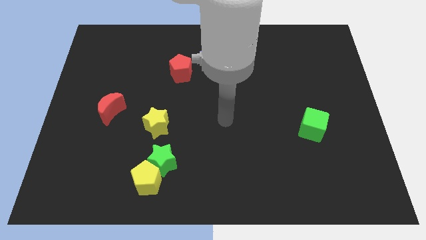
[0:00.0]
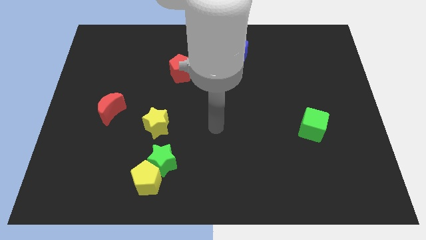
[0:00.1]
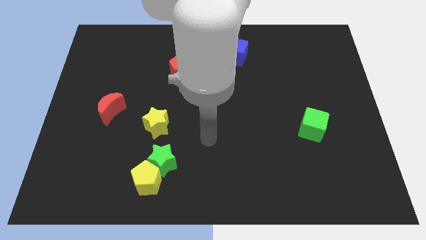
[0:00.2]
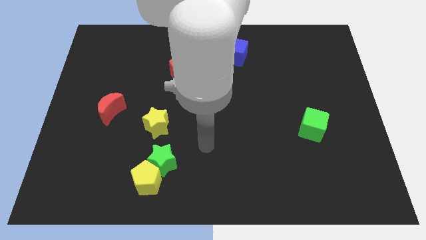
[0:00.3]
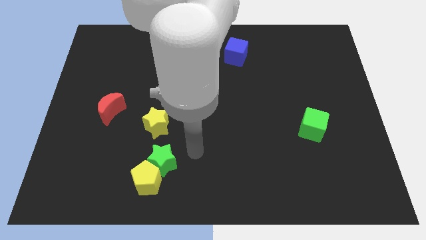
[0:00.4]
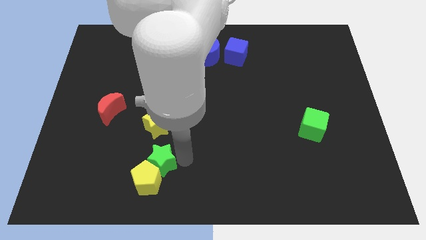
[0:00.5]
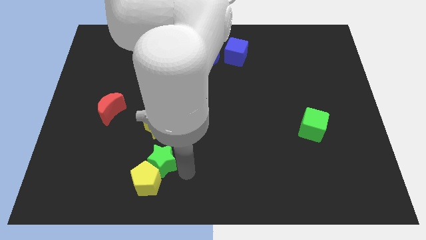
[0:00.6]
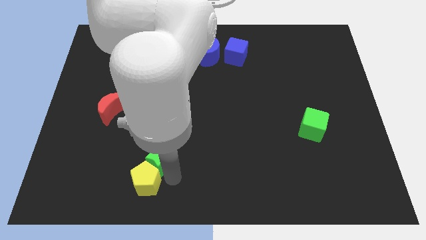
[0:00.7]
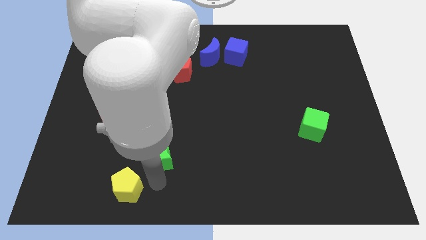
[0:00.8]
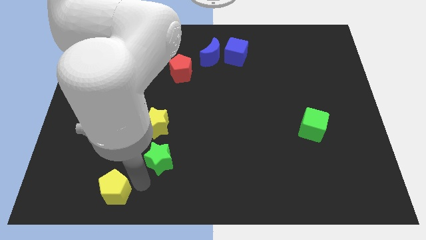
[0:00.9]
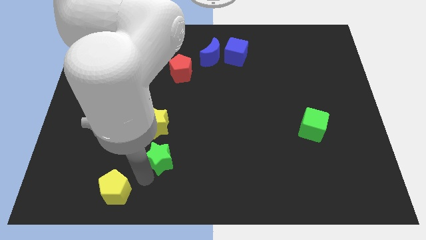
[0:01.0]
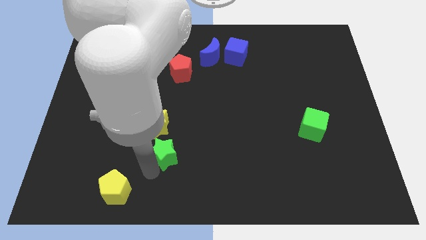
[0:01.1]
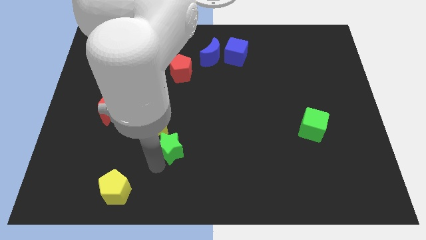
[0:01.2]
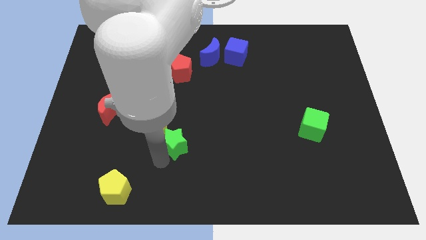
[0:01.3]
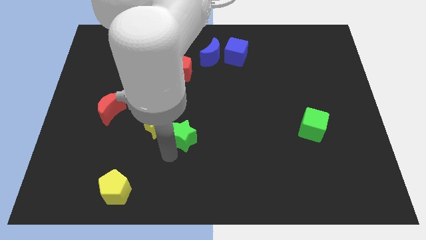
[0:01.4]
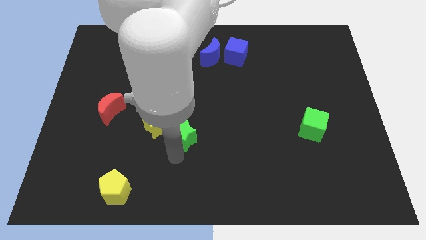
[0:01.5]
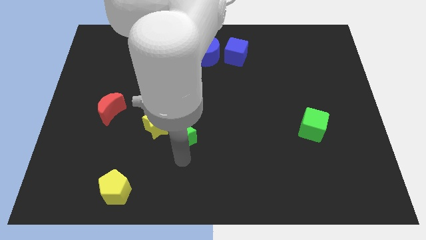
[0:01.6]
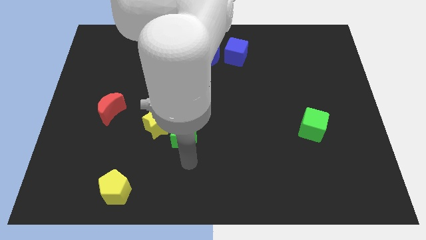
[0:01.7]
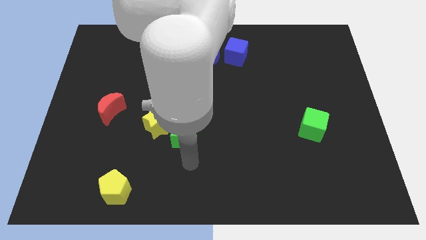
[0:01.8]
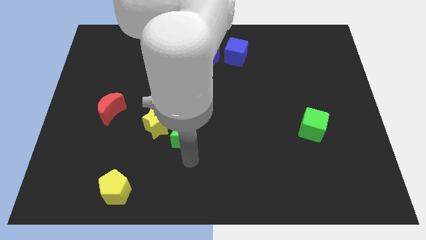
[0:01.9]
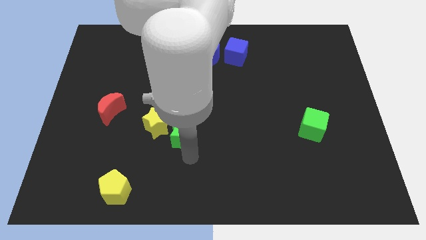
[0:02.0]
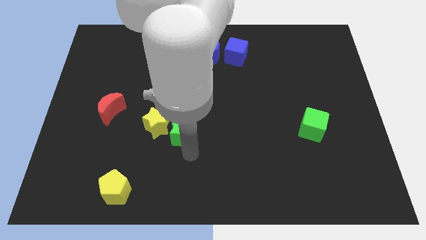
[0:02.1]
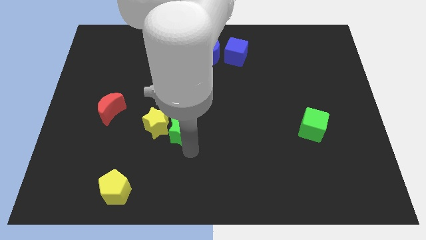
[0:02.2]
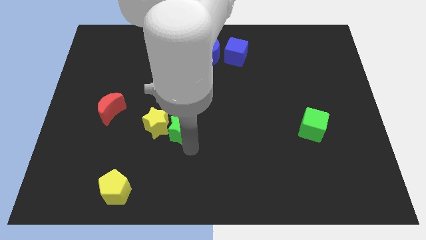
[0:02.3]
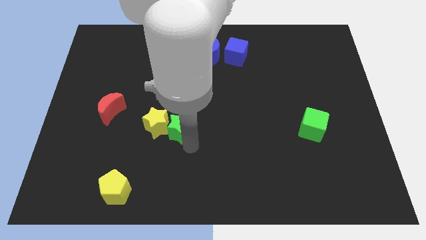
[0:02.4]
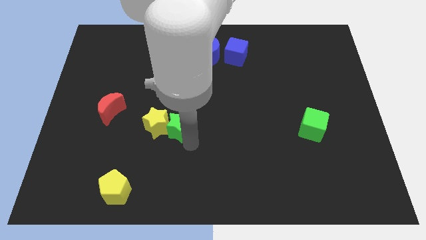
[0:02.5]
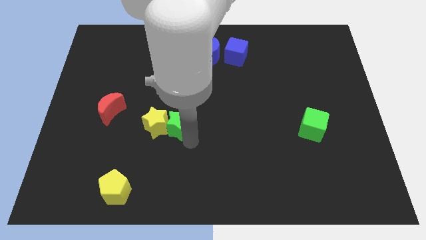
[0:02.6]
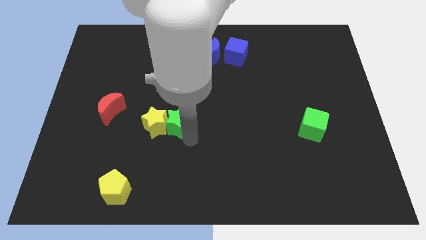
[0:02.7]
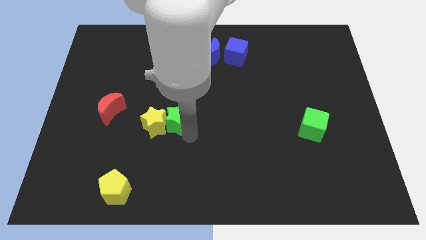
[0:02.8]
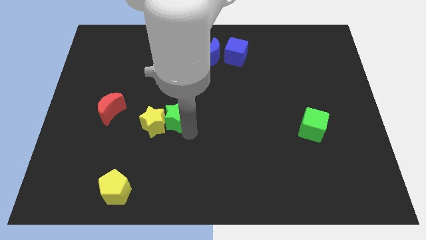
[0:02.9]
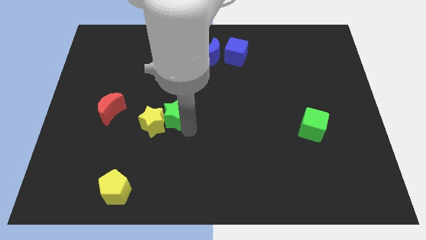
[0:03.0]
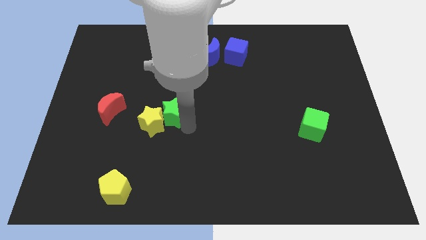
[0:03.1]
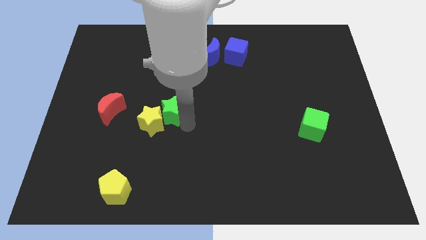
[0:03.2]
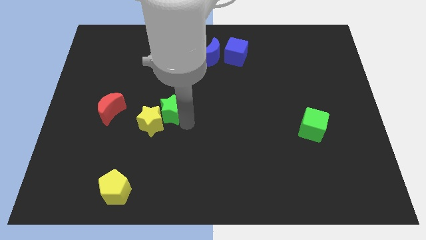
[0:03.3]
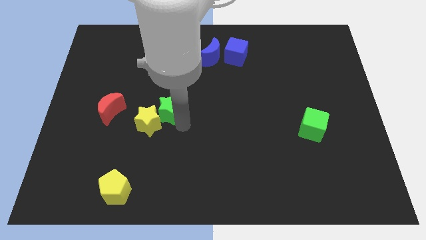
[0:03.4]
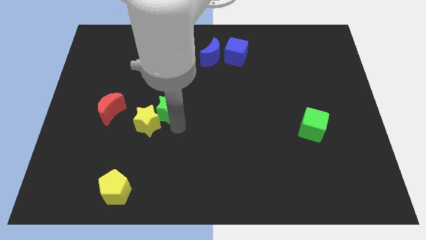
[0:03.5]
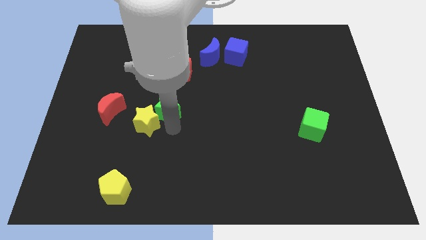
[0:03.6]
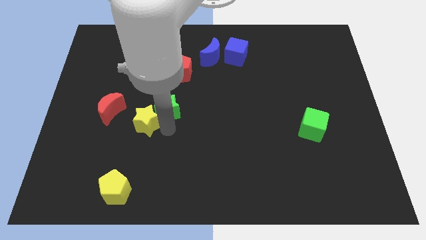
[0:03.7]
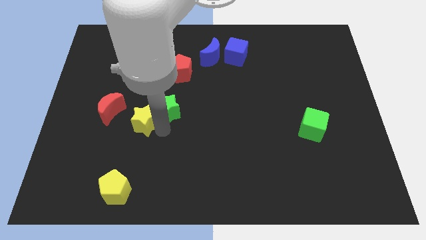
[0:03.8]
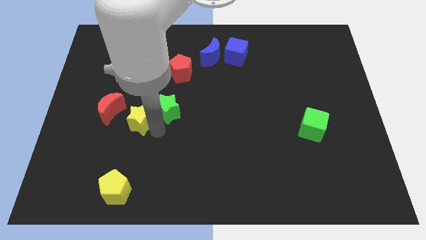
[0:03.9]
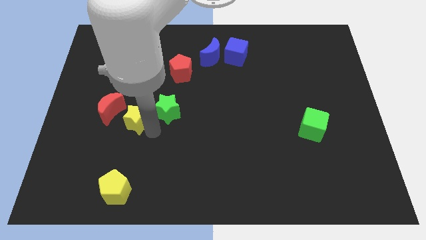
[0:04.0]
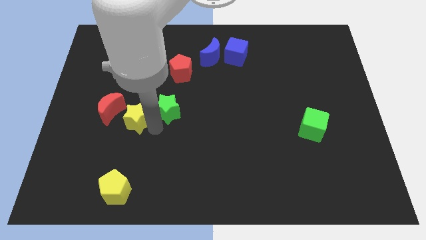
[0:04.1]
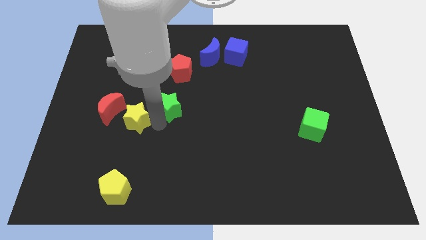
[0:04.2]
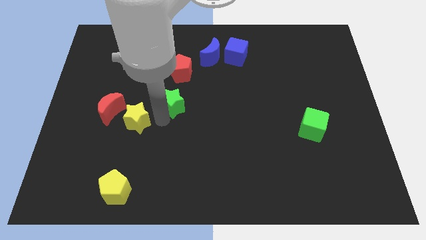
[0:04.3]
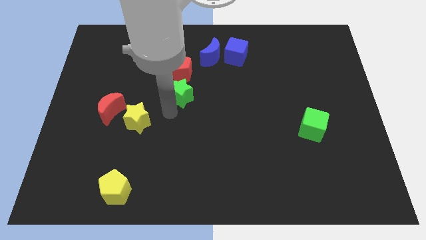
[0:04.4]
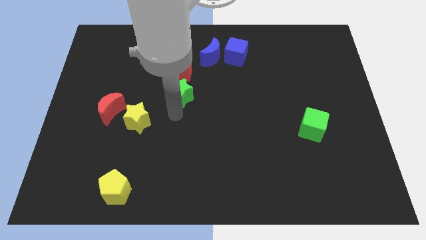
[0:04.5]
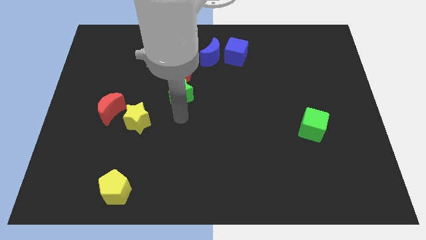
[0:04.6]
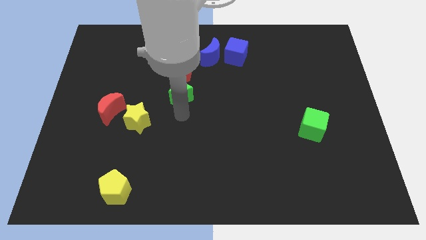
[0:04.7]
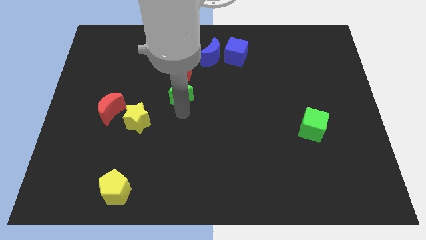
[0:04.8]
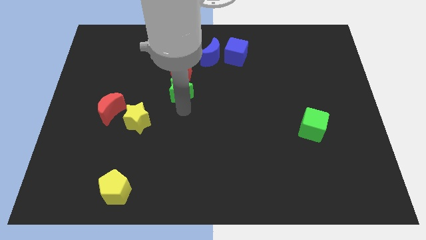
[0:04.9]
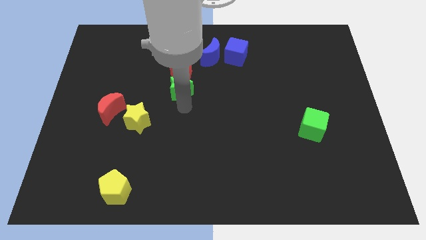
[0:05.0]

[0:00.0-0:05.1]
push the green star next to the red pentagon

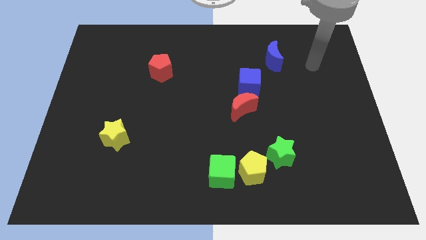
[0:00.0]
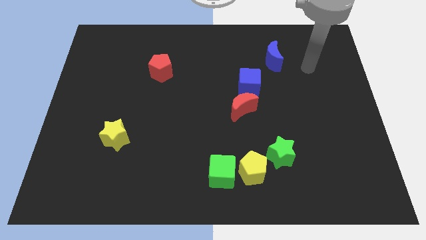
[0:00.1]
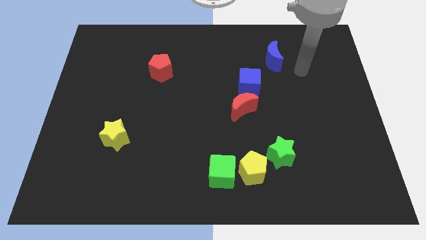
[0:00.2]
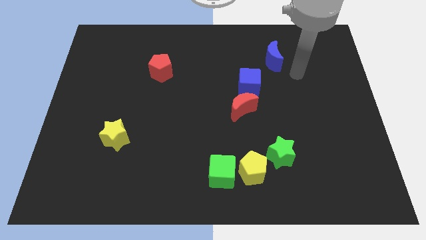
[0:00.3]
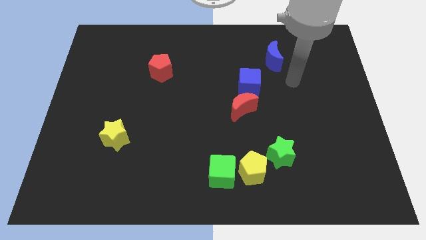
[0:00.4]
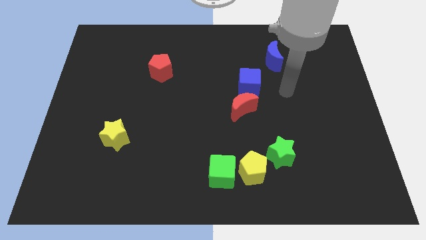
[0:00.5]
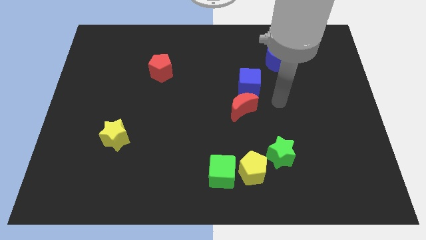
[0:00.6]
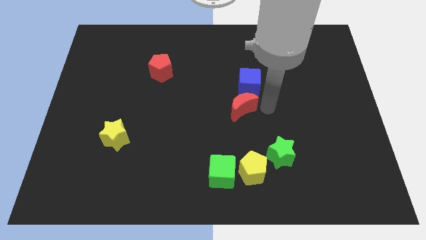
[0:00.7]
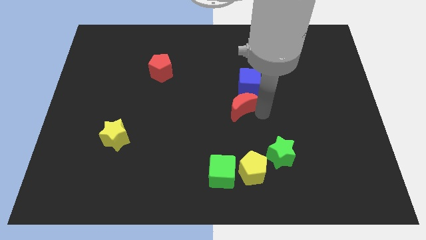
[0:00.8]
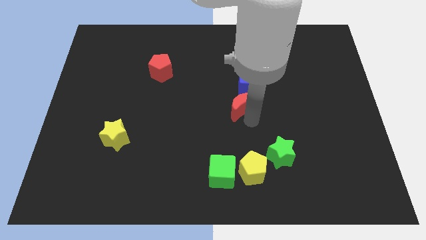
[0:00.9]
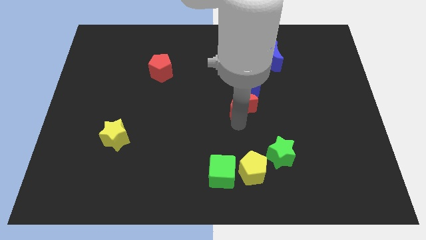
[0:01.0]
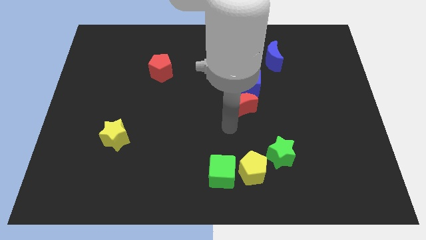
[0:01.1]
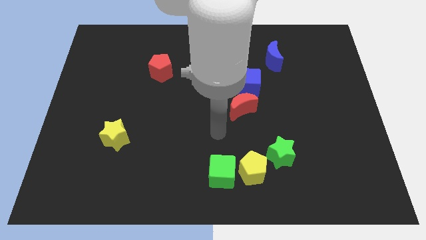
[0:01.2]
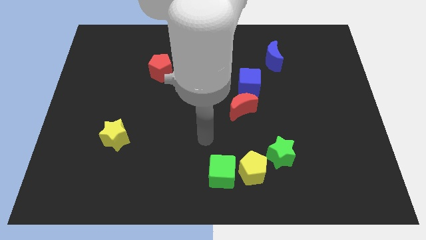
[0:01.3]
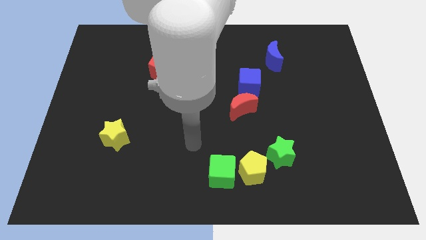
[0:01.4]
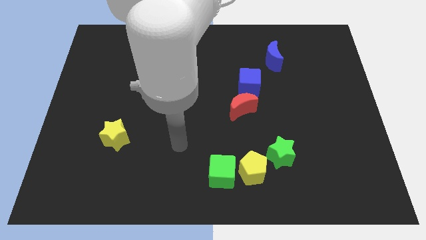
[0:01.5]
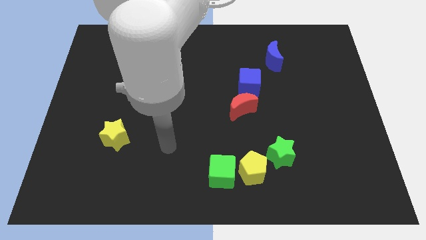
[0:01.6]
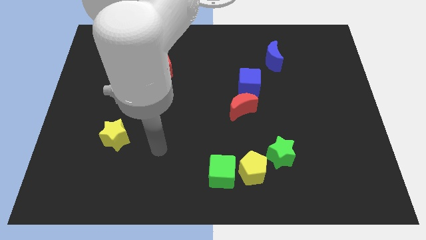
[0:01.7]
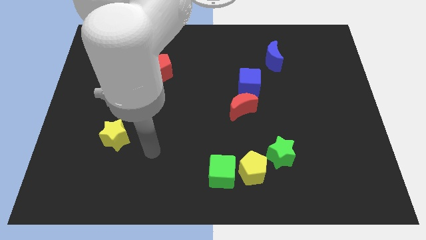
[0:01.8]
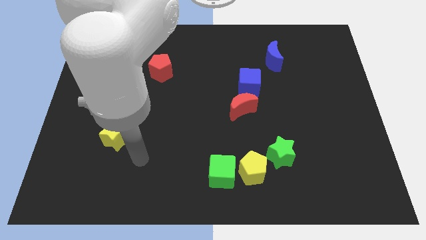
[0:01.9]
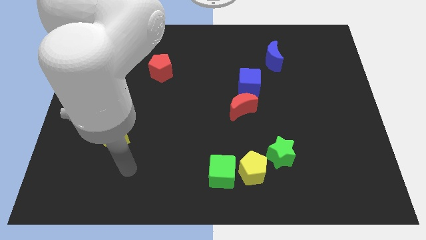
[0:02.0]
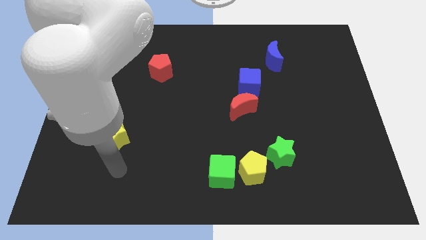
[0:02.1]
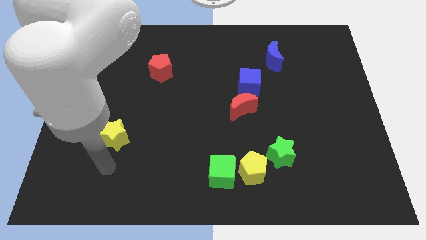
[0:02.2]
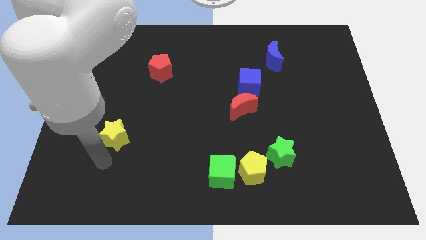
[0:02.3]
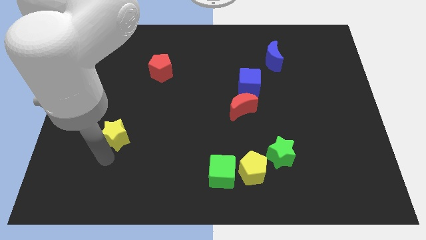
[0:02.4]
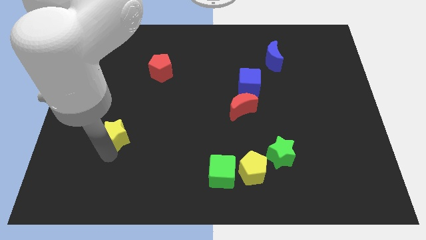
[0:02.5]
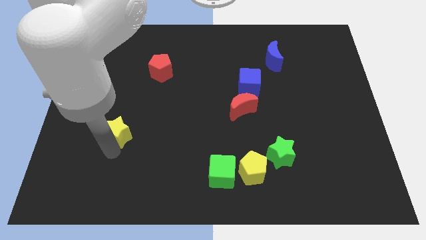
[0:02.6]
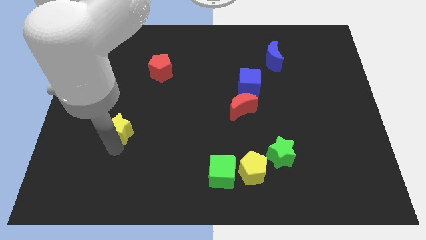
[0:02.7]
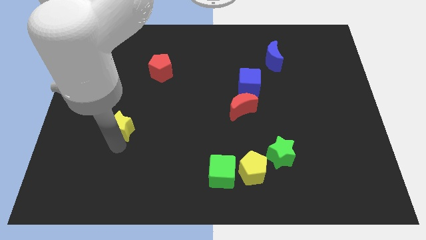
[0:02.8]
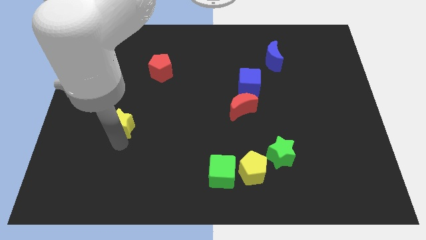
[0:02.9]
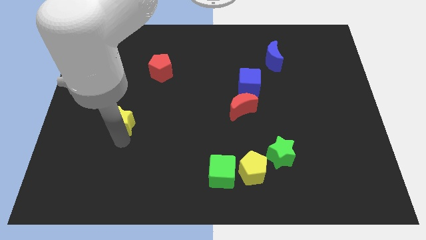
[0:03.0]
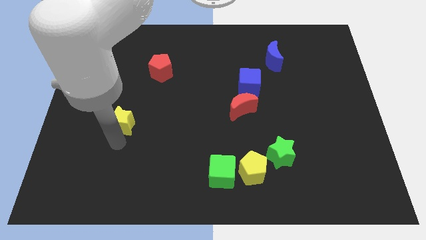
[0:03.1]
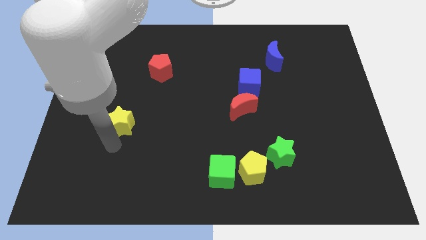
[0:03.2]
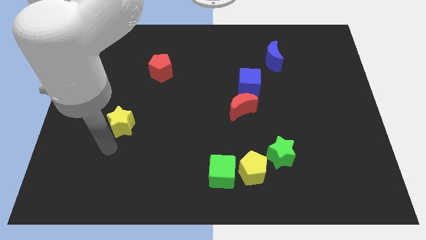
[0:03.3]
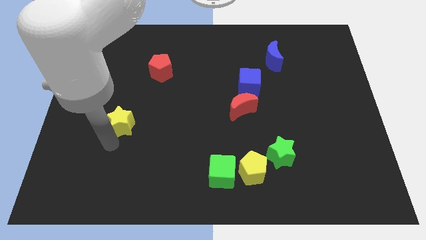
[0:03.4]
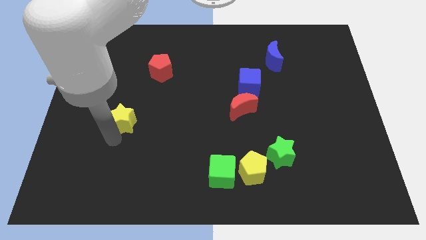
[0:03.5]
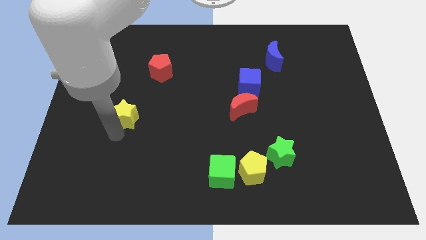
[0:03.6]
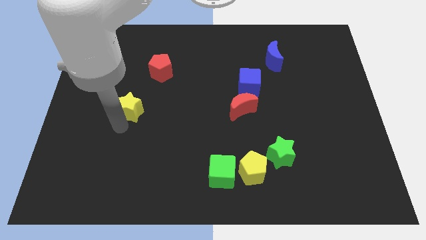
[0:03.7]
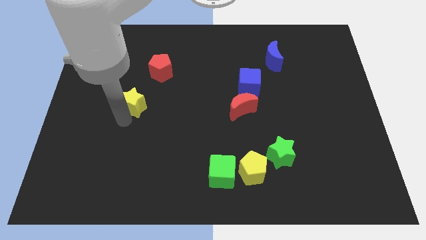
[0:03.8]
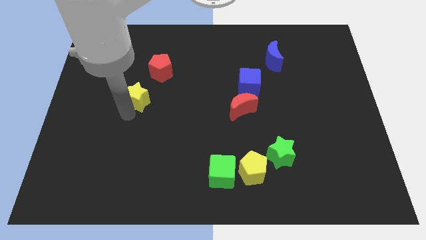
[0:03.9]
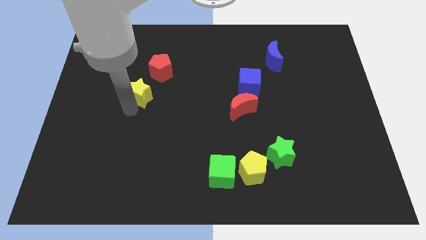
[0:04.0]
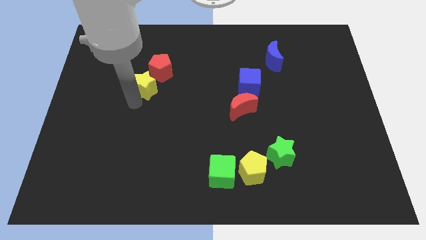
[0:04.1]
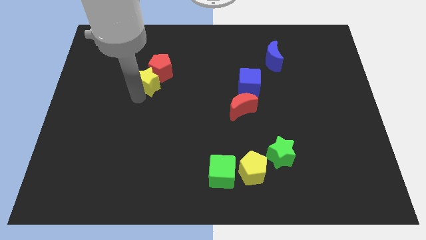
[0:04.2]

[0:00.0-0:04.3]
push the yellow star close to the red pentagon
